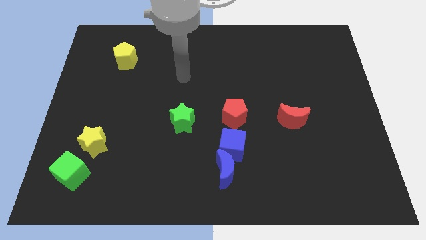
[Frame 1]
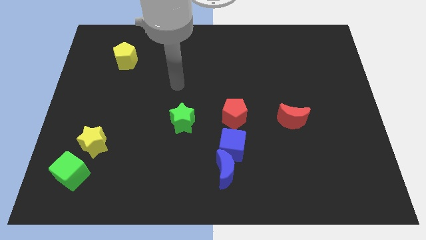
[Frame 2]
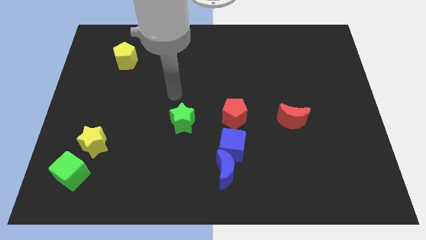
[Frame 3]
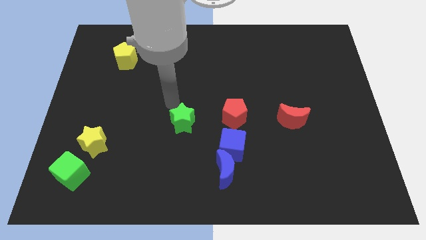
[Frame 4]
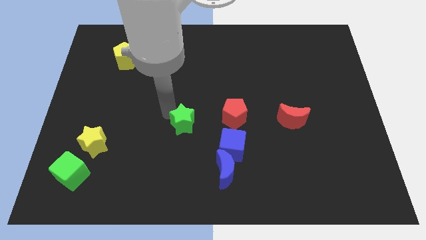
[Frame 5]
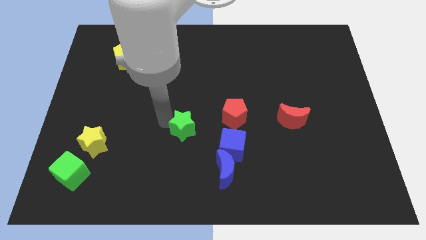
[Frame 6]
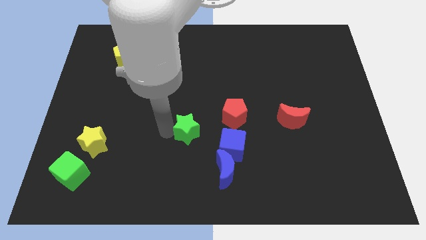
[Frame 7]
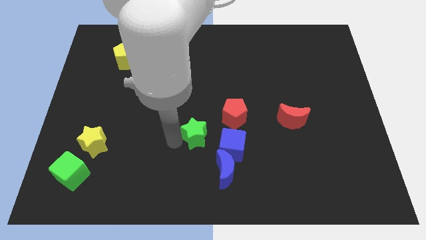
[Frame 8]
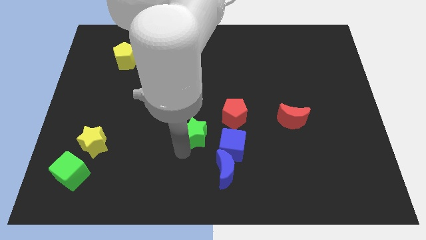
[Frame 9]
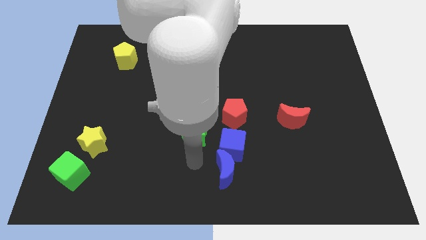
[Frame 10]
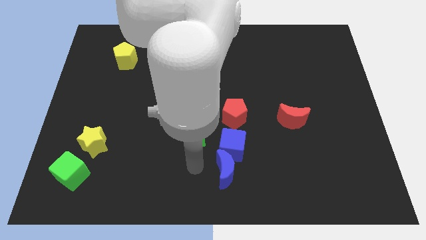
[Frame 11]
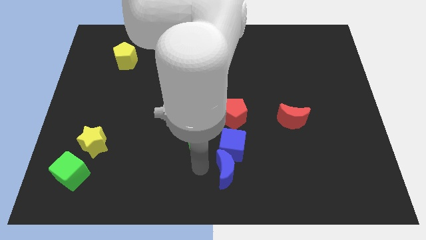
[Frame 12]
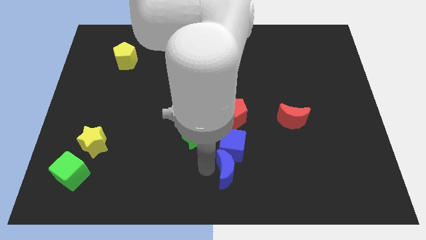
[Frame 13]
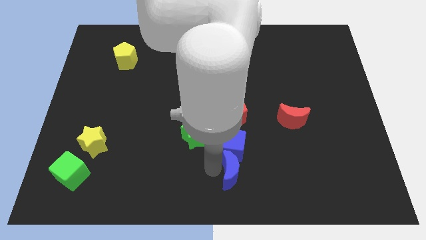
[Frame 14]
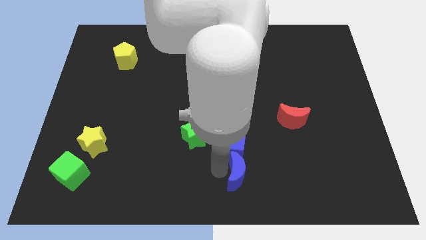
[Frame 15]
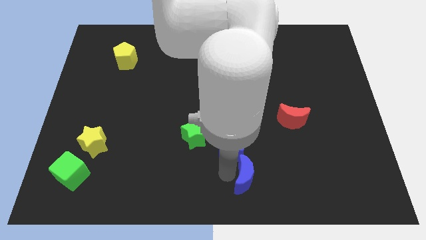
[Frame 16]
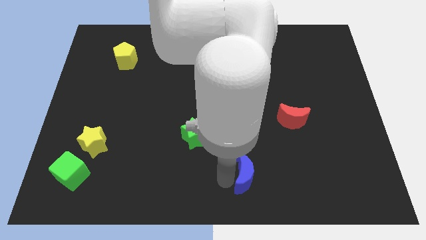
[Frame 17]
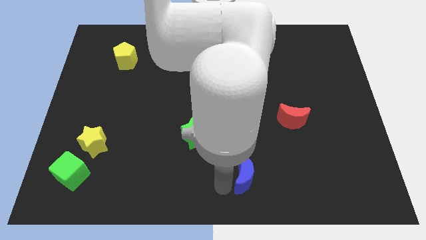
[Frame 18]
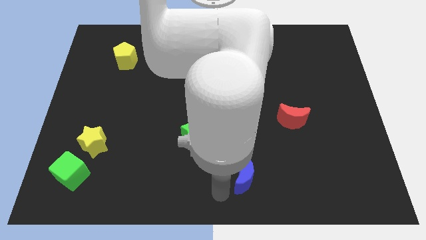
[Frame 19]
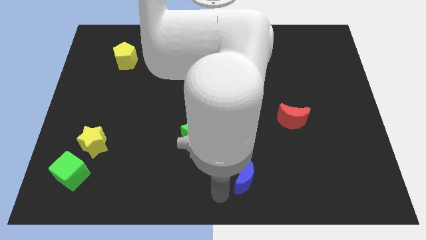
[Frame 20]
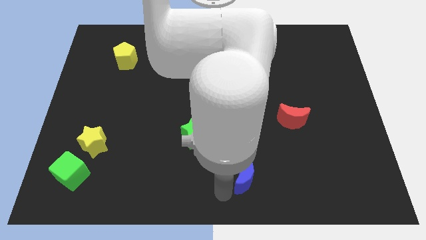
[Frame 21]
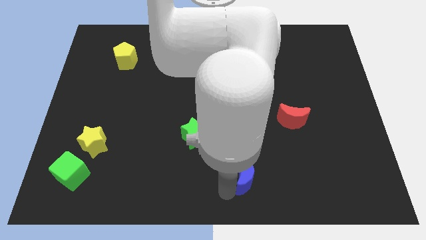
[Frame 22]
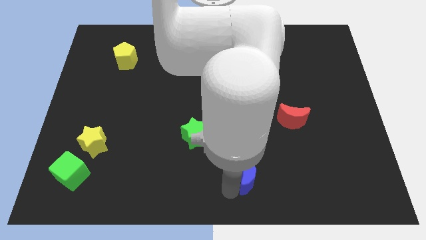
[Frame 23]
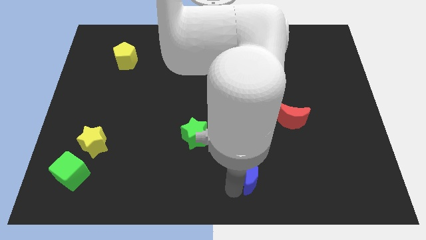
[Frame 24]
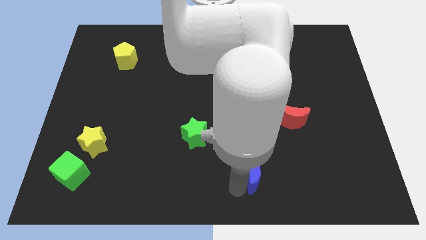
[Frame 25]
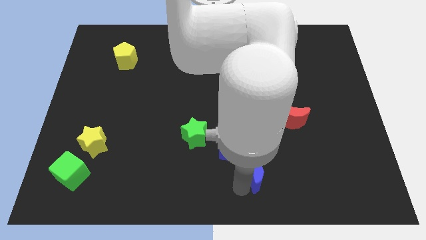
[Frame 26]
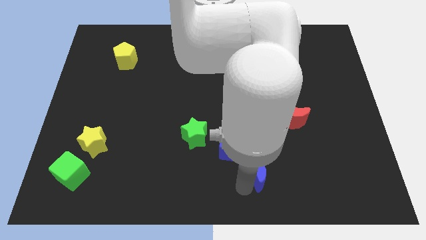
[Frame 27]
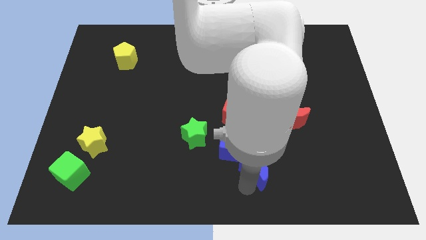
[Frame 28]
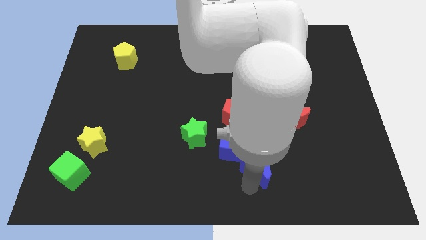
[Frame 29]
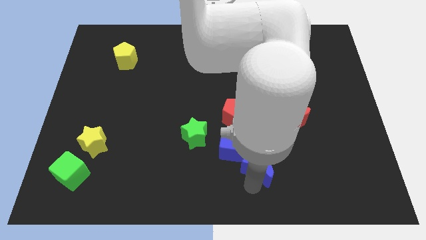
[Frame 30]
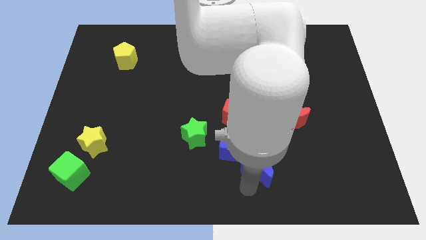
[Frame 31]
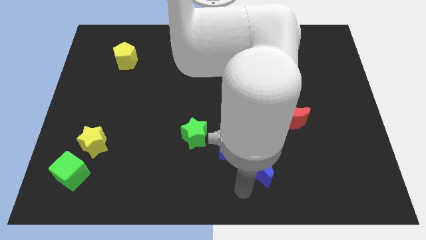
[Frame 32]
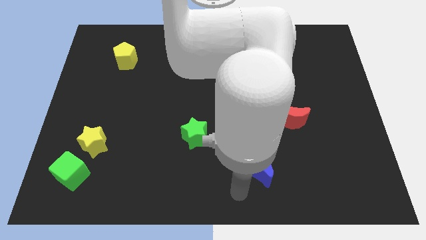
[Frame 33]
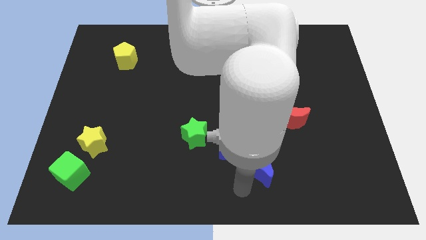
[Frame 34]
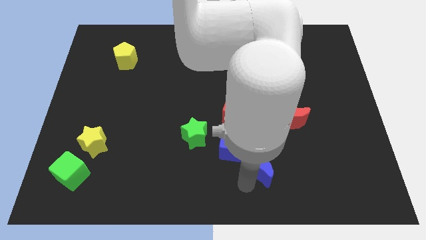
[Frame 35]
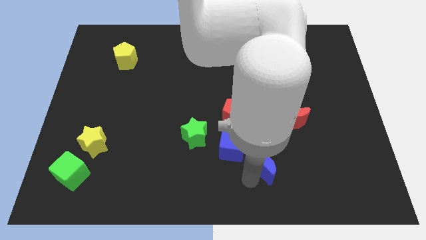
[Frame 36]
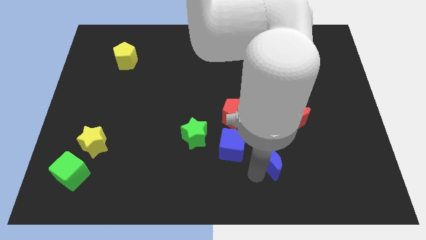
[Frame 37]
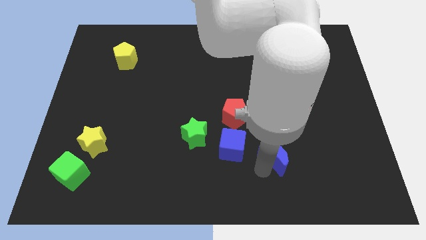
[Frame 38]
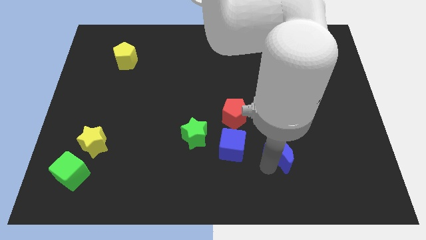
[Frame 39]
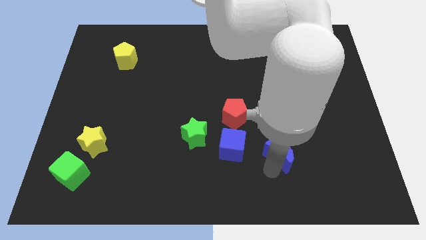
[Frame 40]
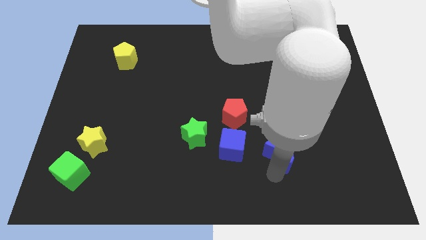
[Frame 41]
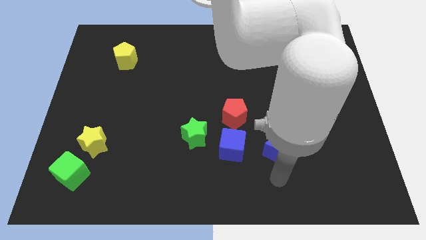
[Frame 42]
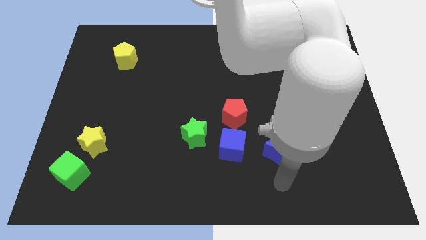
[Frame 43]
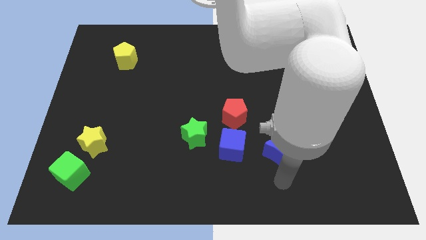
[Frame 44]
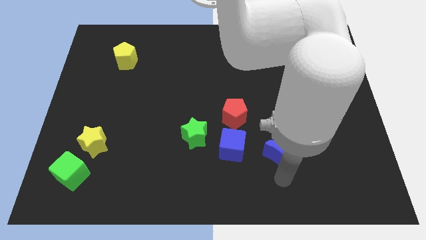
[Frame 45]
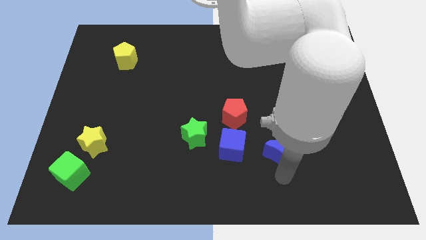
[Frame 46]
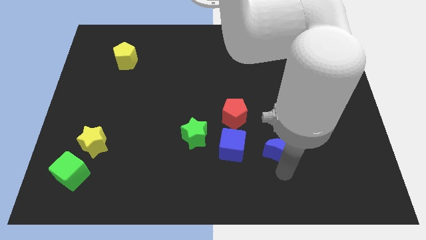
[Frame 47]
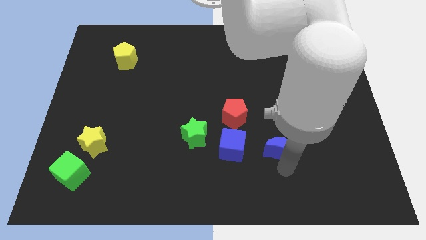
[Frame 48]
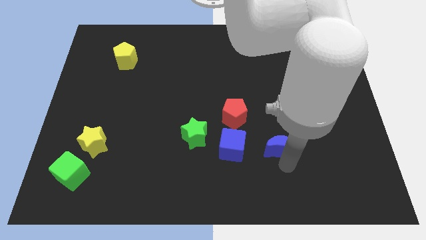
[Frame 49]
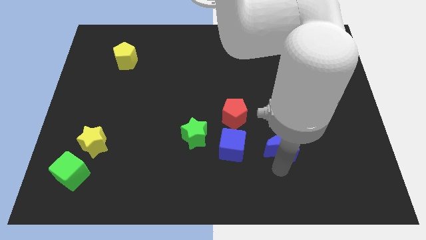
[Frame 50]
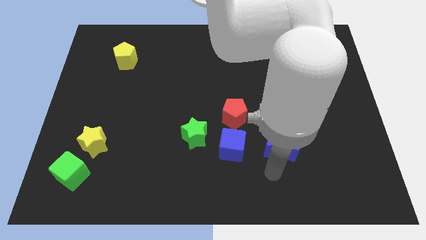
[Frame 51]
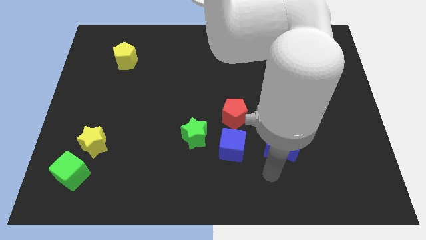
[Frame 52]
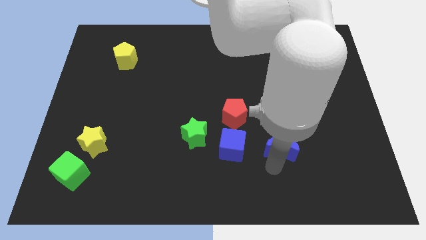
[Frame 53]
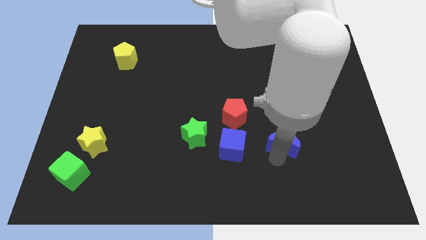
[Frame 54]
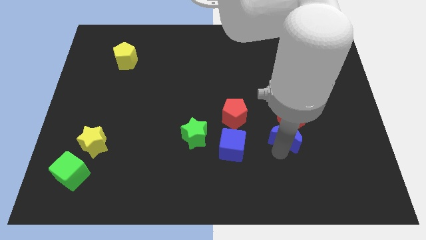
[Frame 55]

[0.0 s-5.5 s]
push the blue moon towards the red moon
